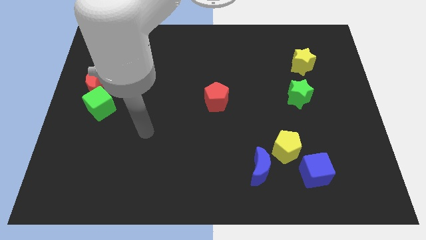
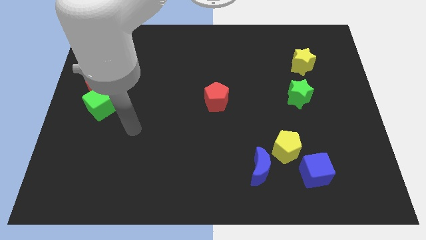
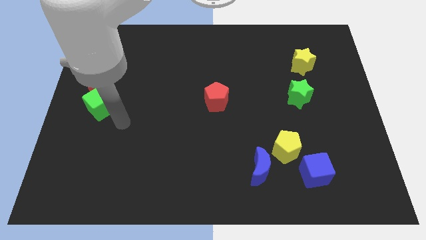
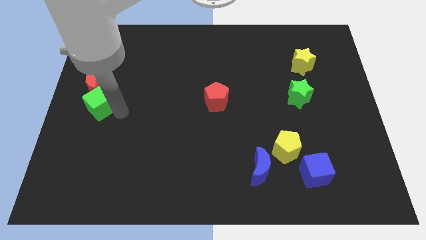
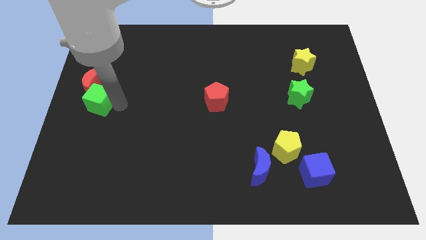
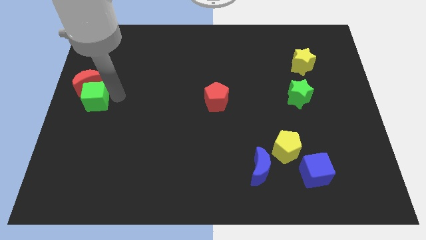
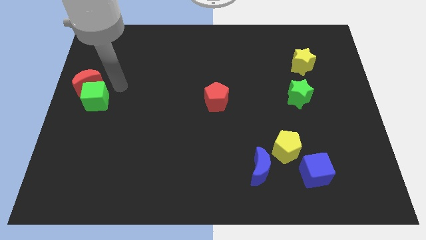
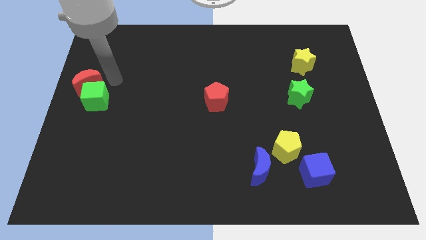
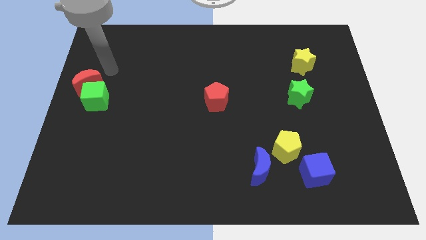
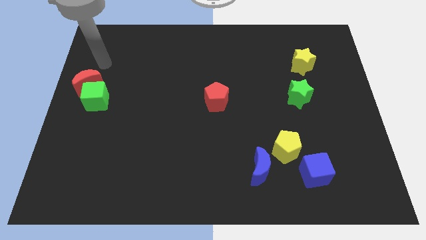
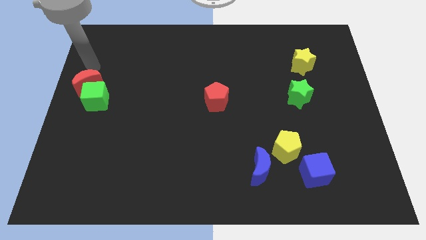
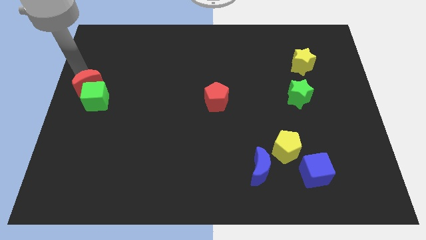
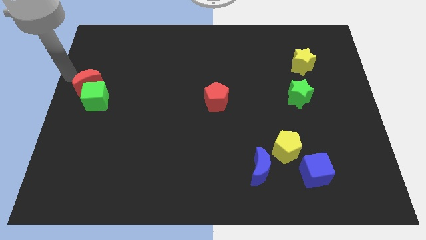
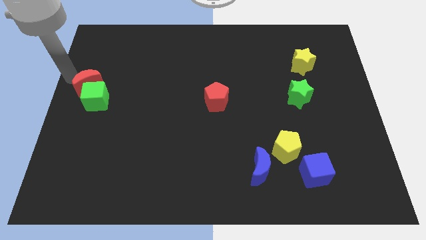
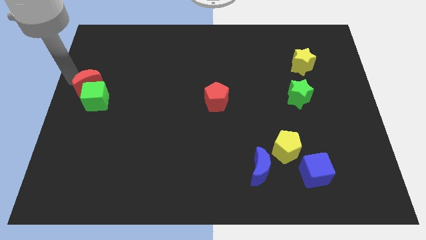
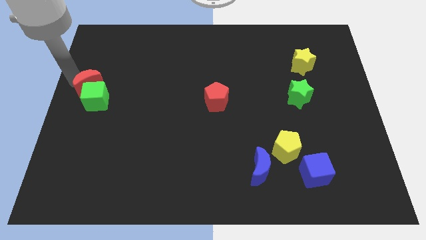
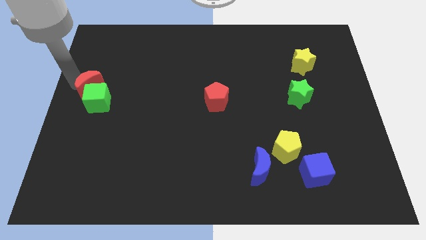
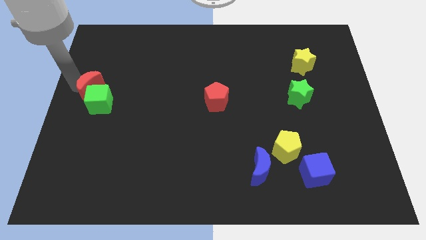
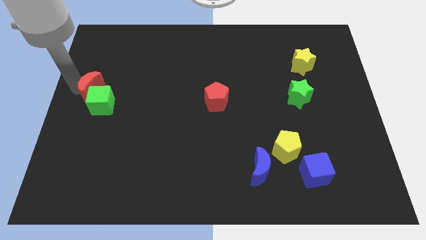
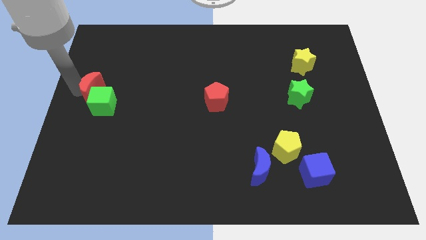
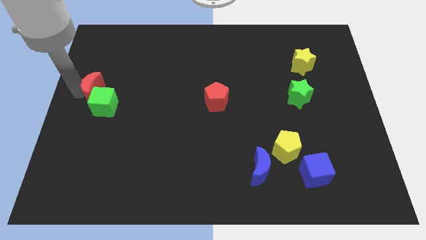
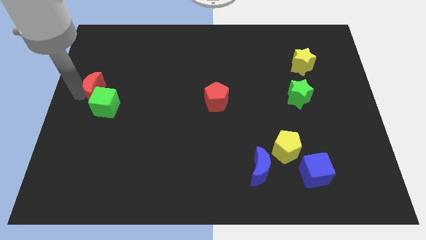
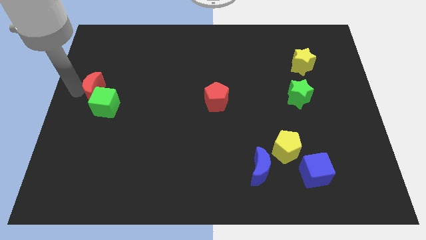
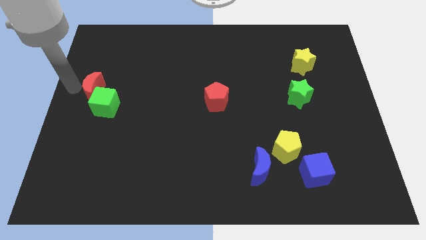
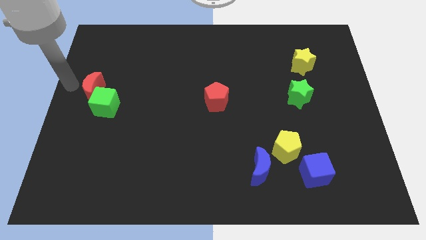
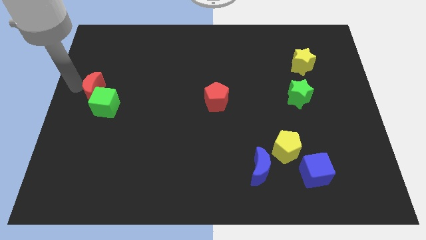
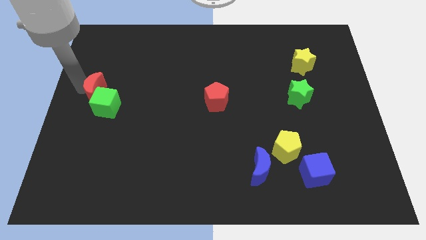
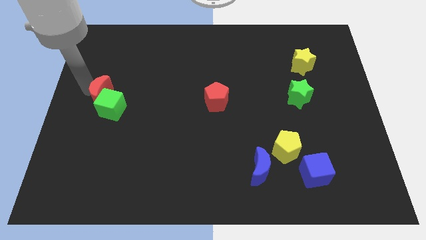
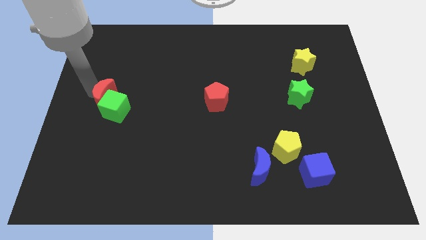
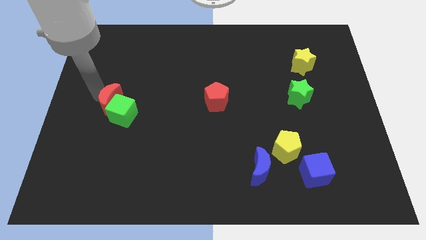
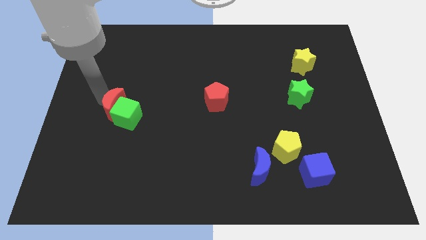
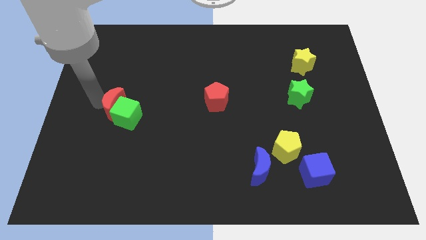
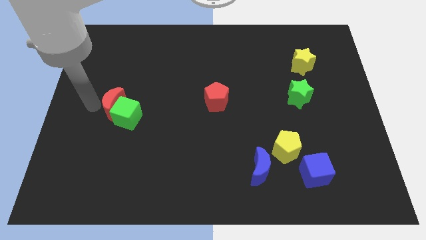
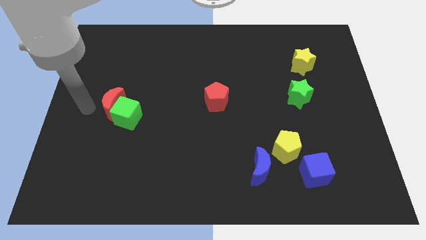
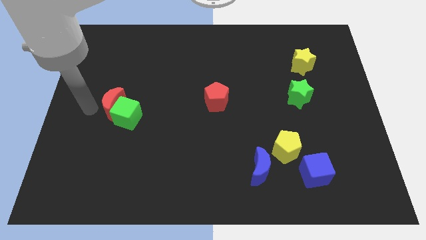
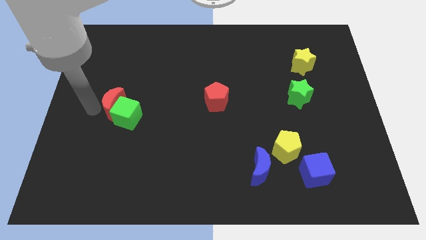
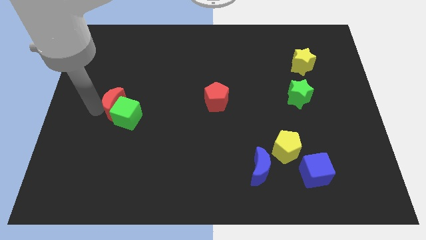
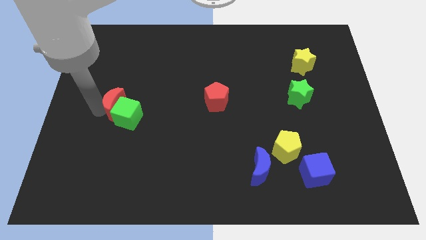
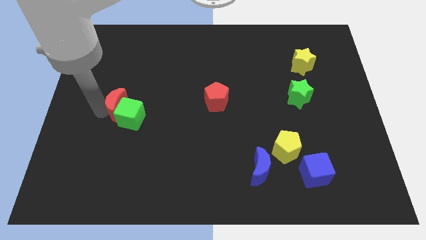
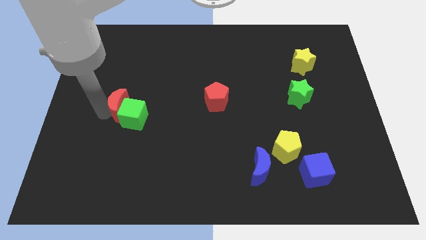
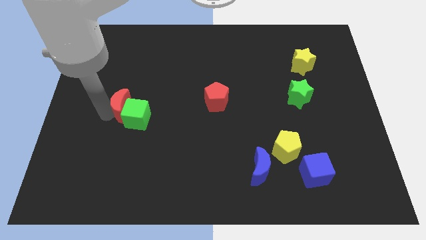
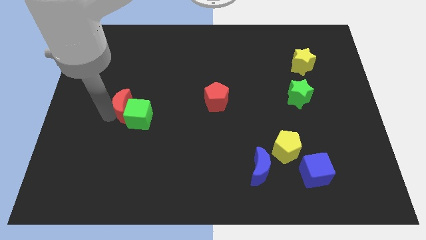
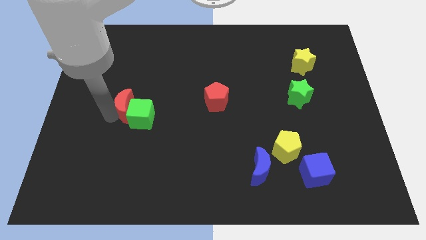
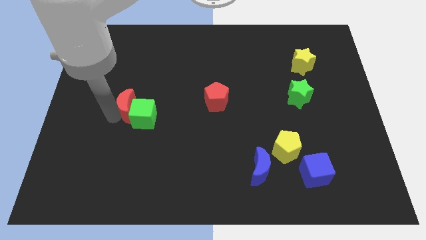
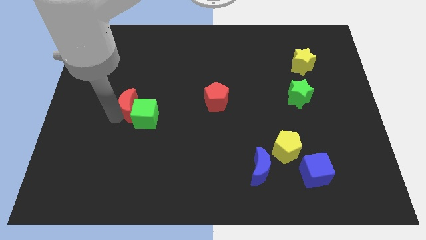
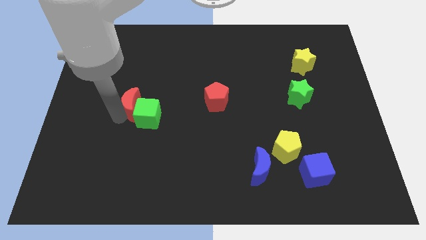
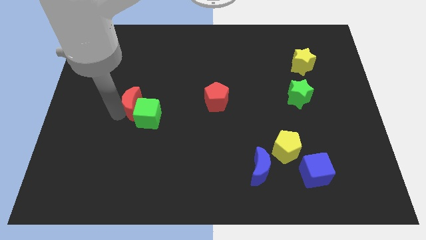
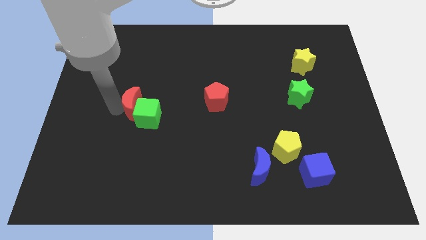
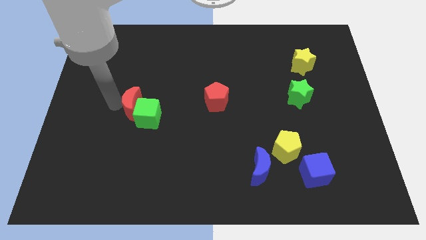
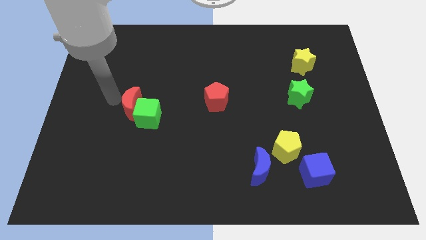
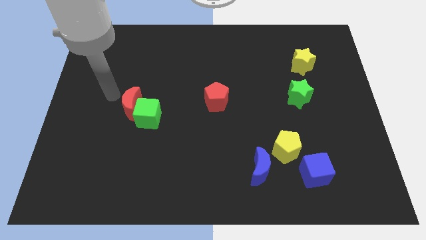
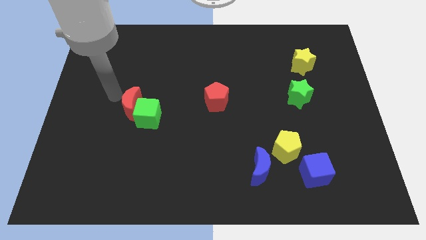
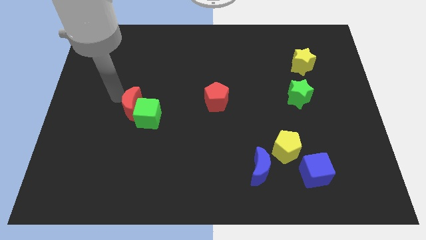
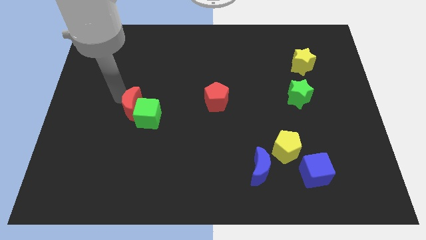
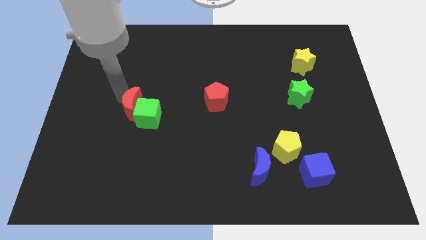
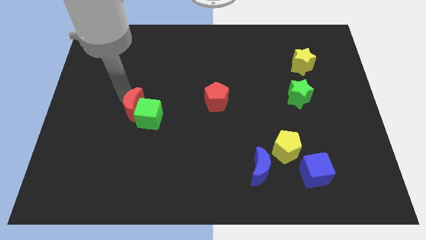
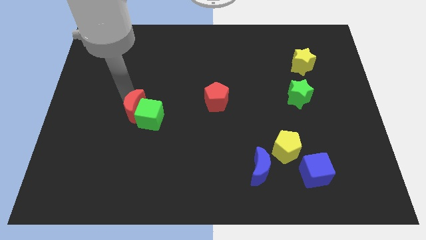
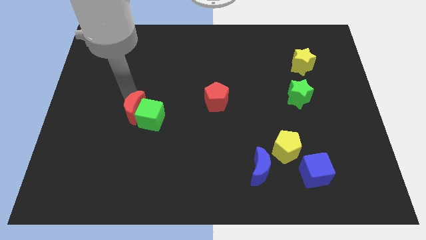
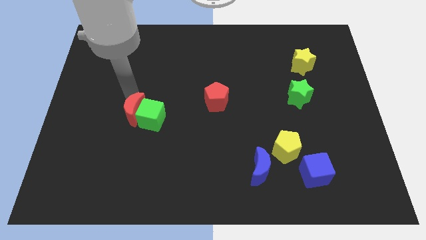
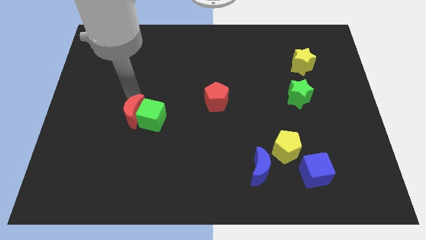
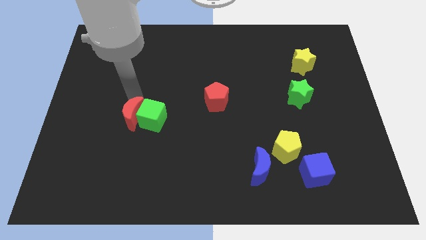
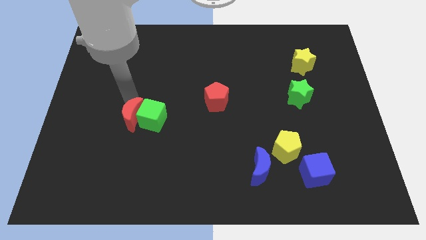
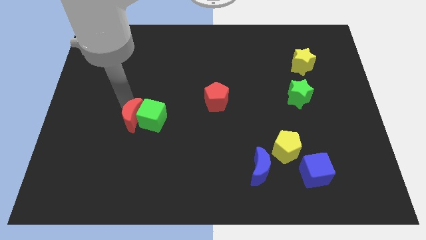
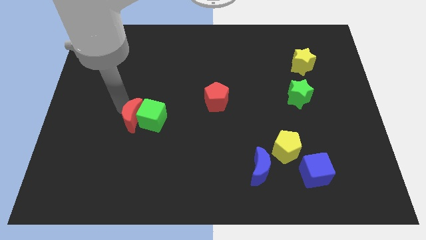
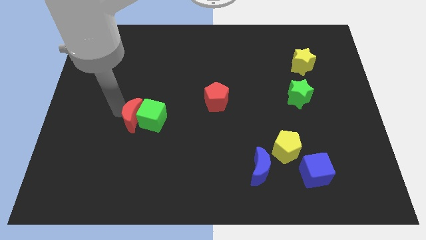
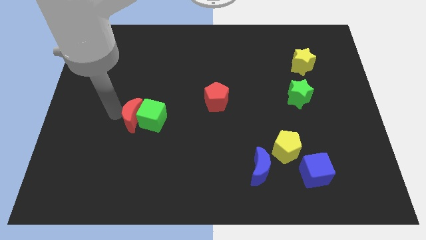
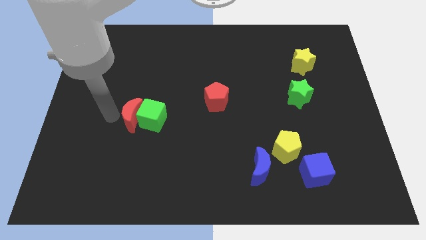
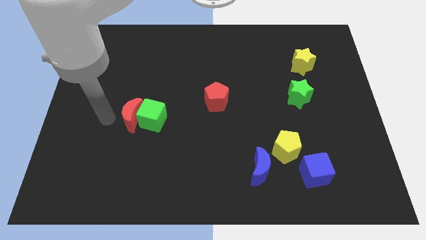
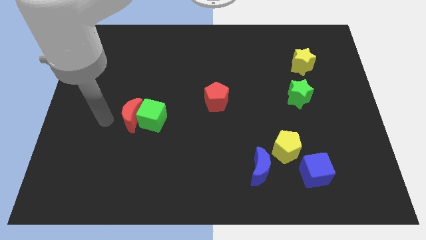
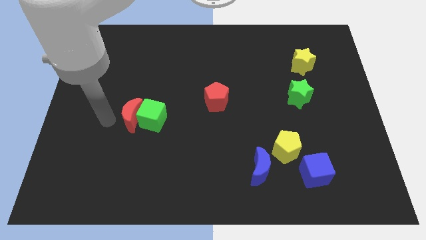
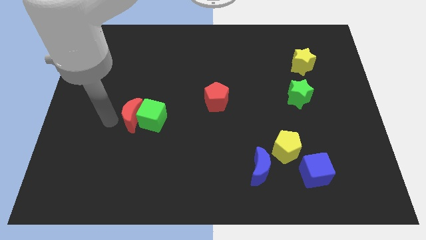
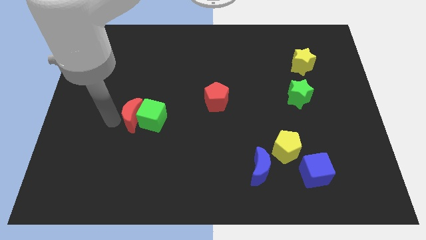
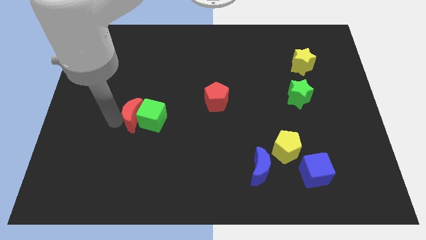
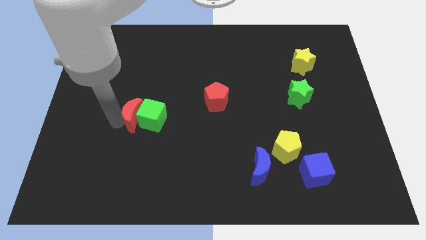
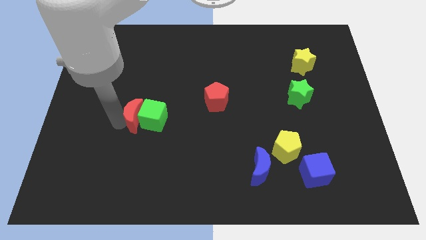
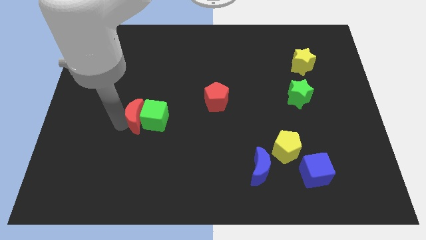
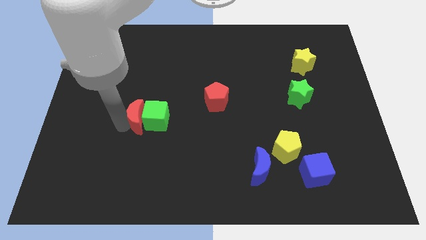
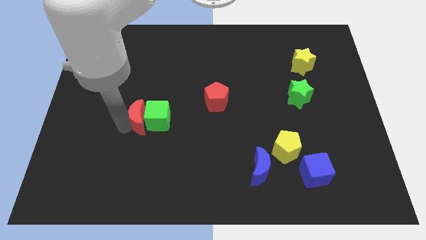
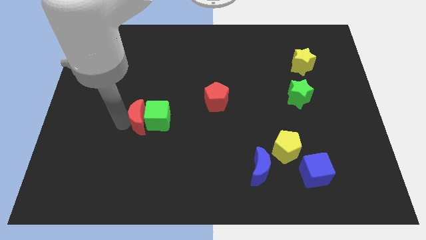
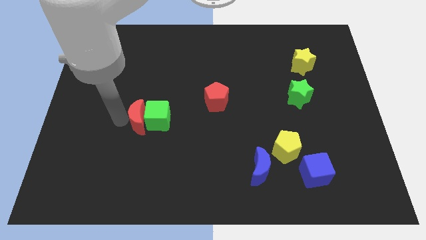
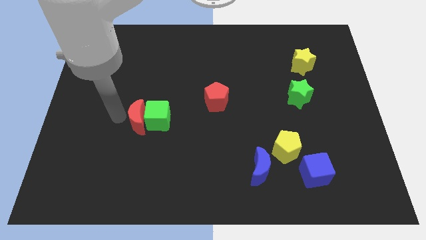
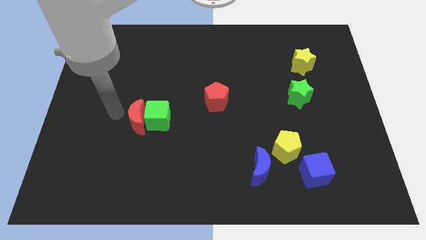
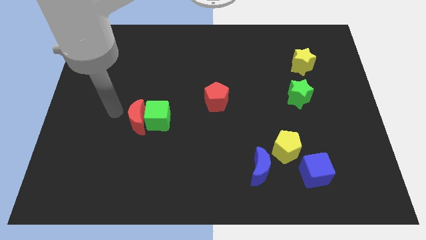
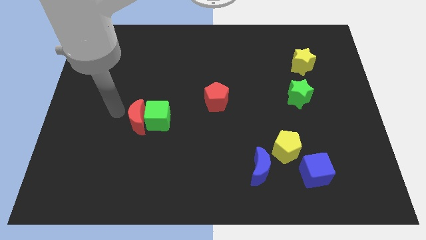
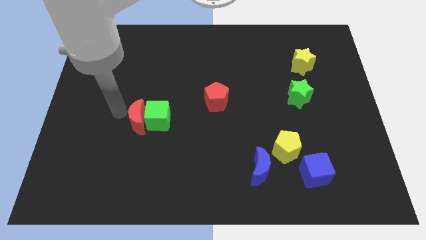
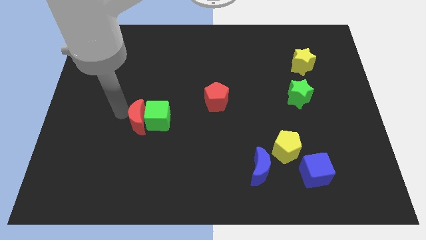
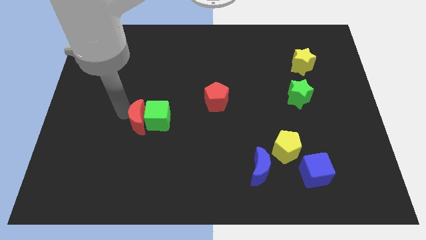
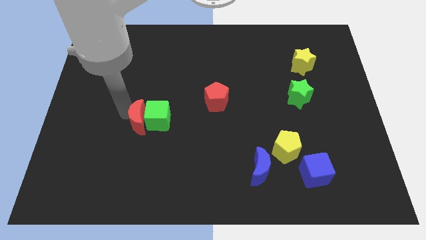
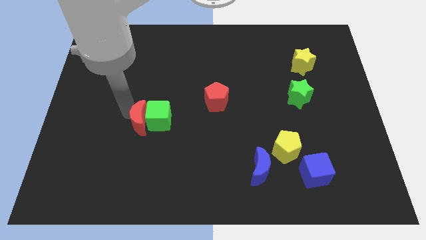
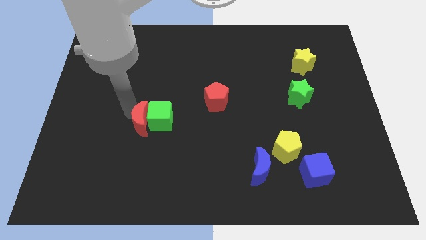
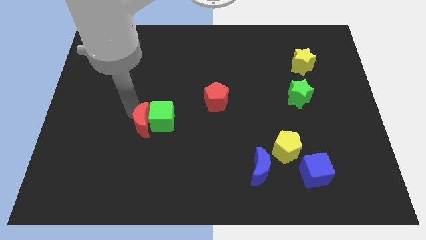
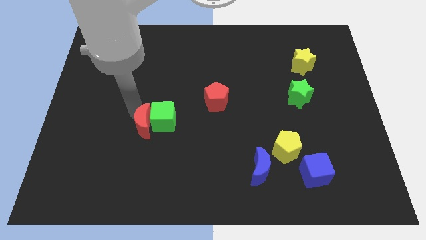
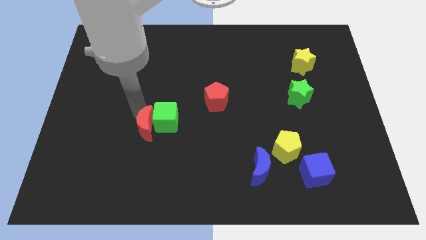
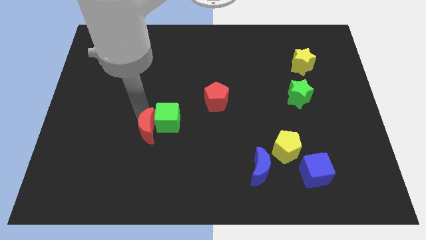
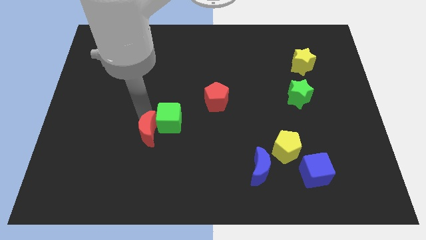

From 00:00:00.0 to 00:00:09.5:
push the red moon downwards and to the right
